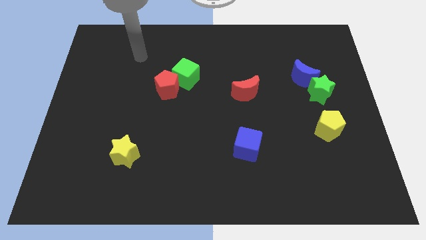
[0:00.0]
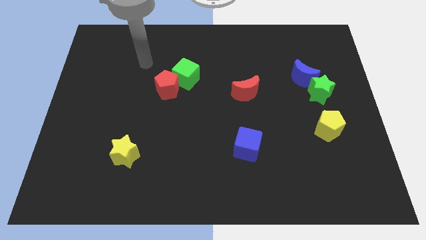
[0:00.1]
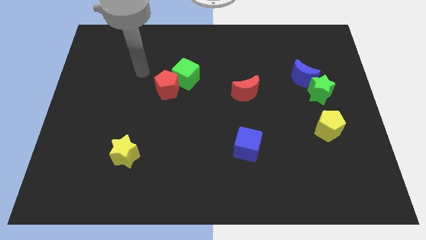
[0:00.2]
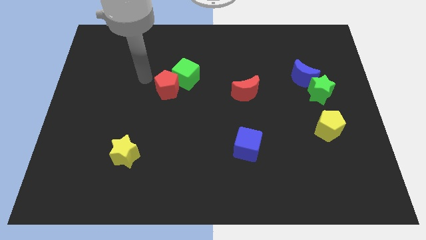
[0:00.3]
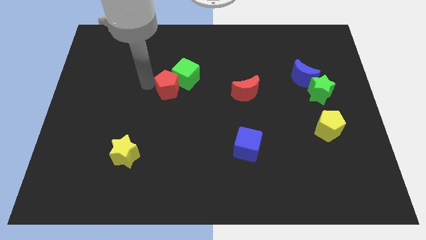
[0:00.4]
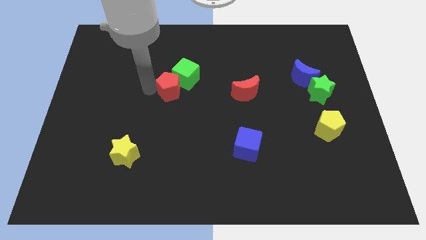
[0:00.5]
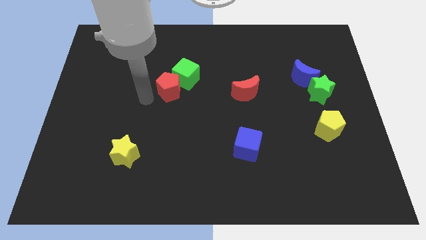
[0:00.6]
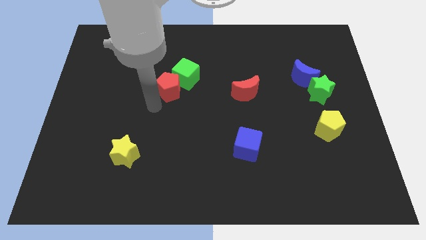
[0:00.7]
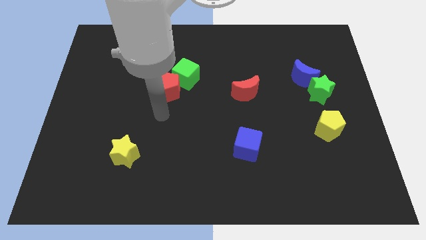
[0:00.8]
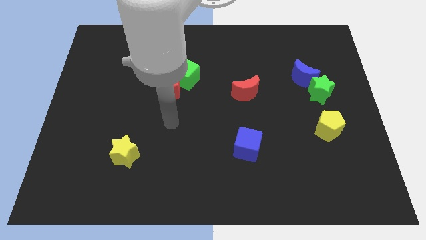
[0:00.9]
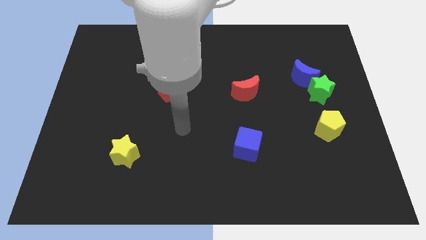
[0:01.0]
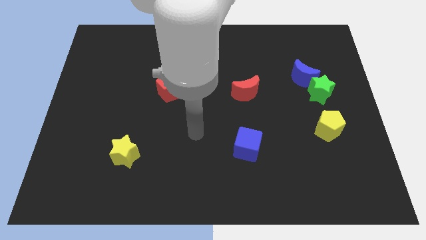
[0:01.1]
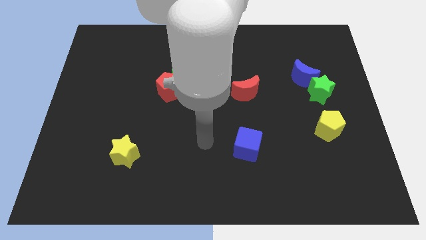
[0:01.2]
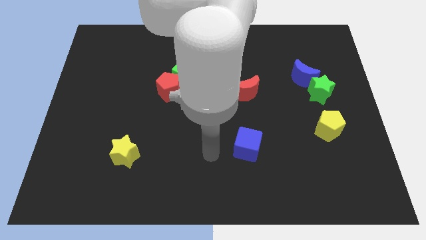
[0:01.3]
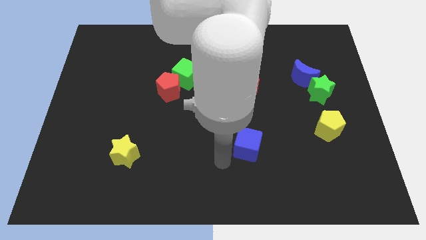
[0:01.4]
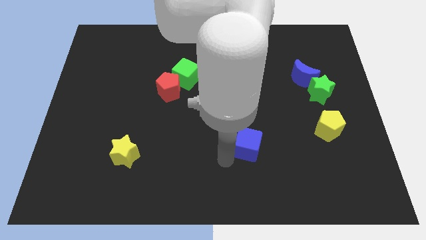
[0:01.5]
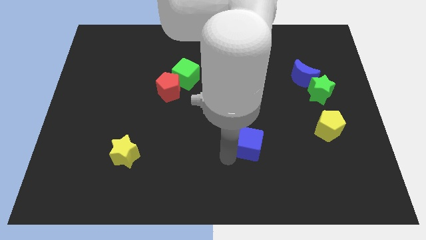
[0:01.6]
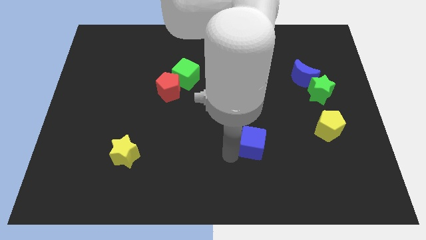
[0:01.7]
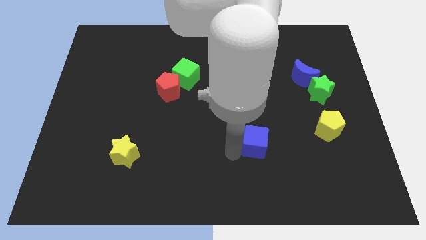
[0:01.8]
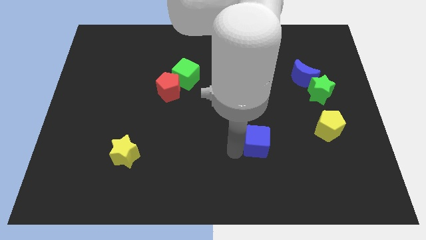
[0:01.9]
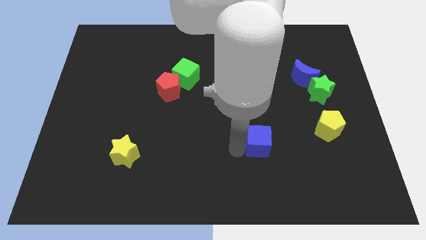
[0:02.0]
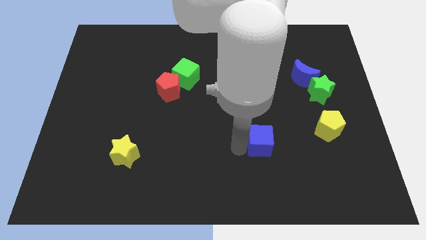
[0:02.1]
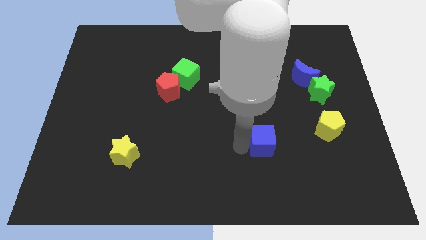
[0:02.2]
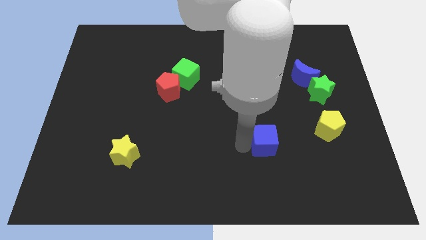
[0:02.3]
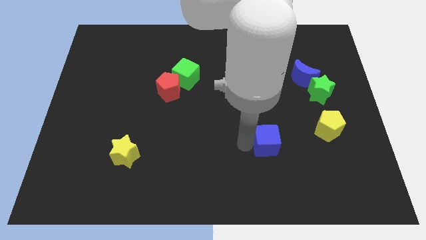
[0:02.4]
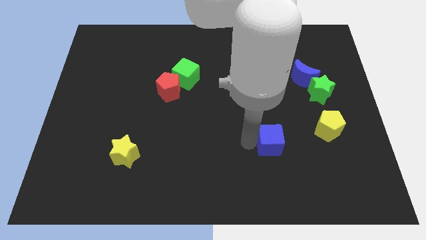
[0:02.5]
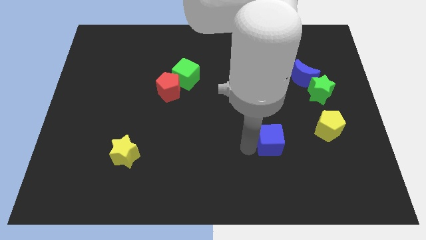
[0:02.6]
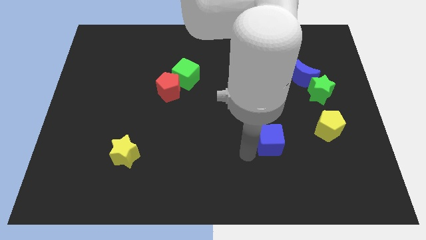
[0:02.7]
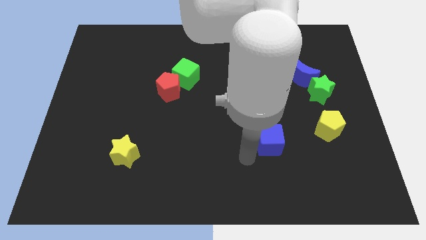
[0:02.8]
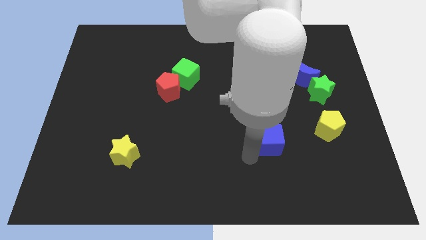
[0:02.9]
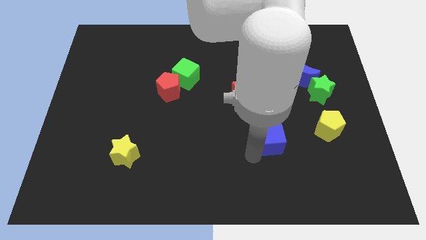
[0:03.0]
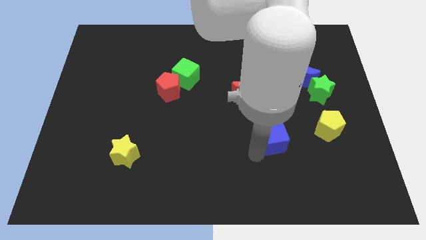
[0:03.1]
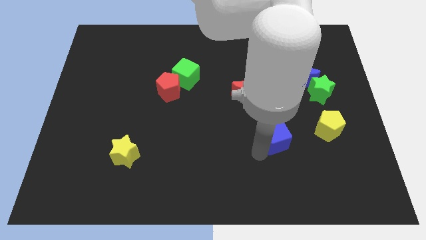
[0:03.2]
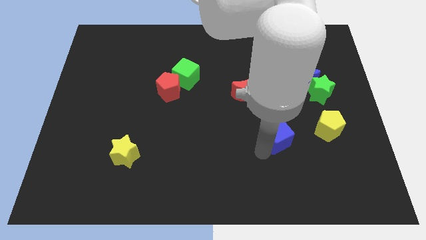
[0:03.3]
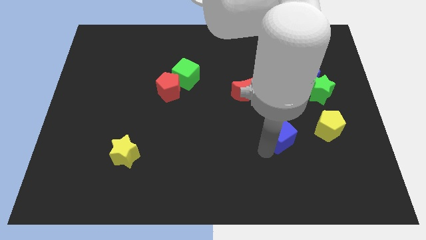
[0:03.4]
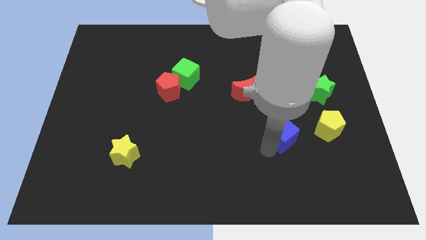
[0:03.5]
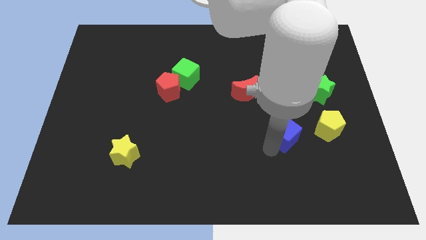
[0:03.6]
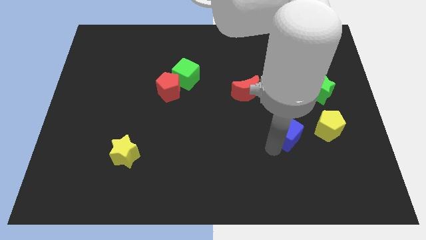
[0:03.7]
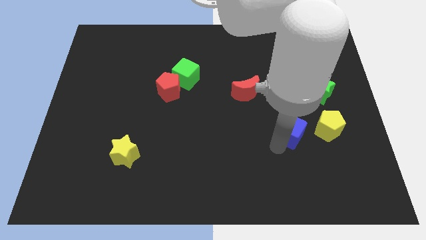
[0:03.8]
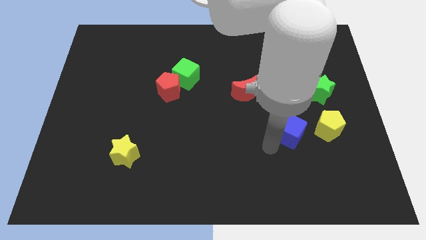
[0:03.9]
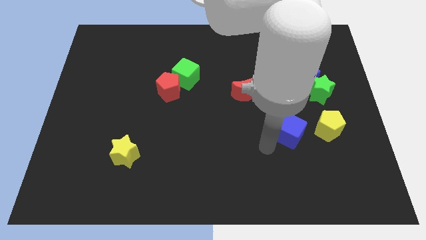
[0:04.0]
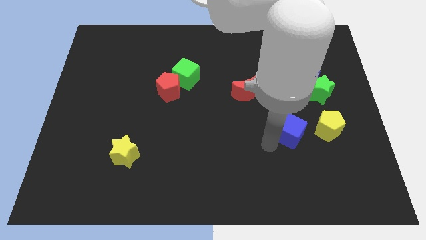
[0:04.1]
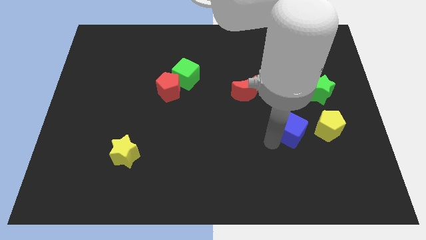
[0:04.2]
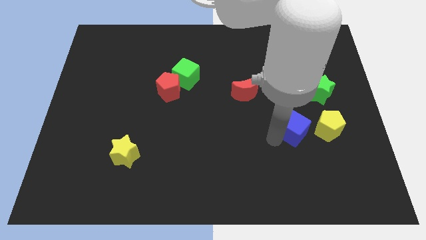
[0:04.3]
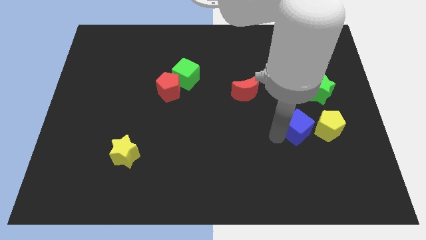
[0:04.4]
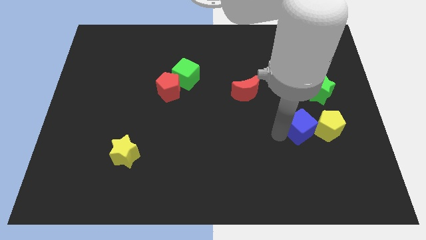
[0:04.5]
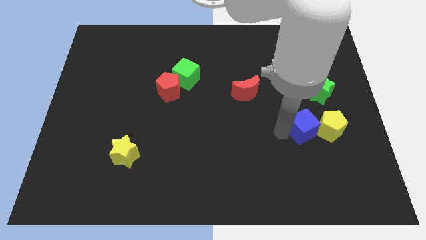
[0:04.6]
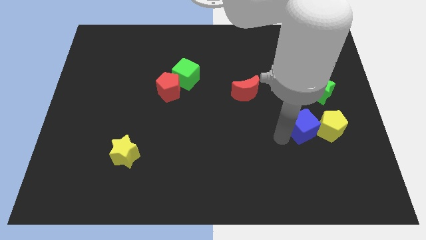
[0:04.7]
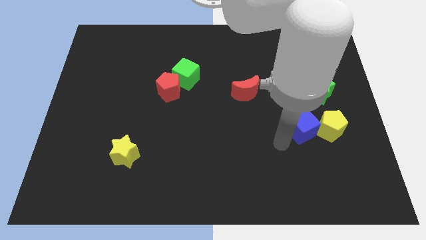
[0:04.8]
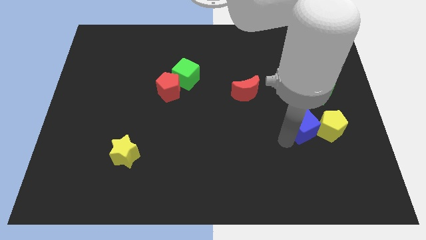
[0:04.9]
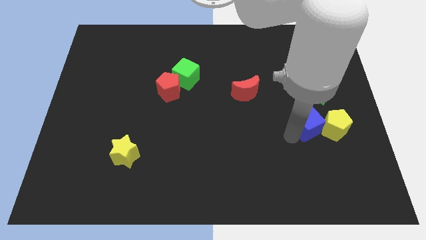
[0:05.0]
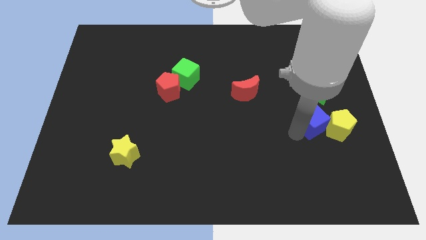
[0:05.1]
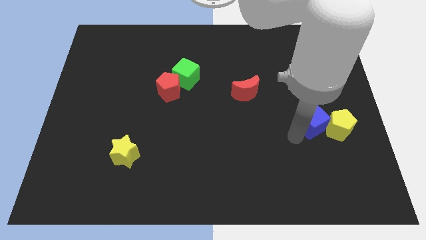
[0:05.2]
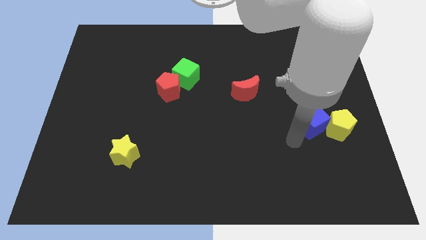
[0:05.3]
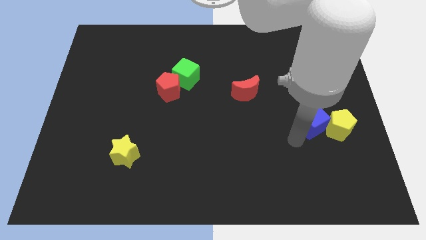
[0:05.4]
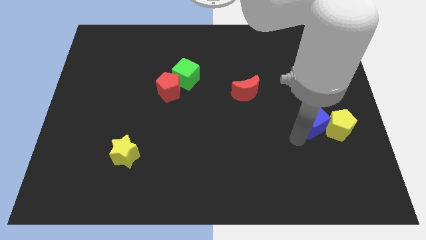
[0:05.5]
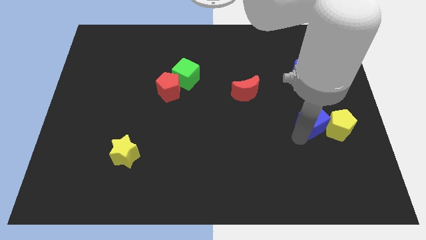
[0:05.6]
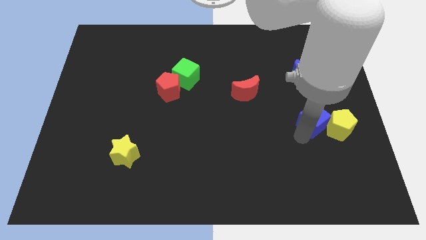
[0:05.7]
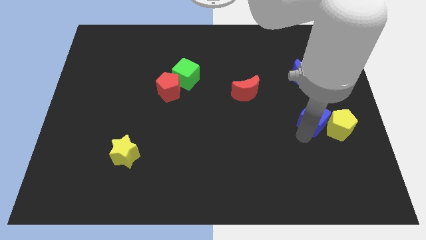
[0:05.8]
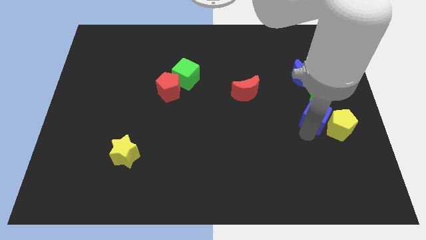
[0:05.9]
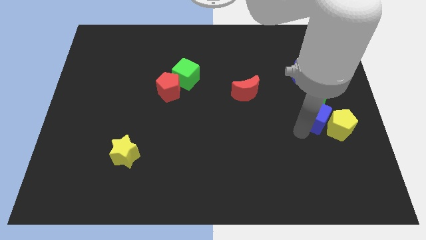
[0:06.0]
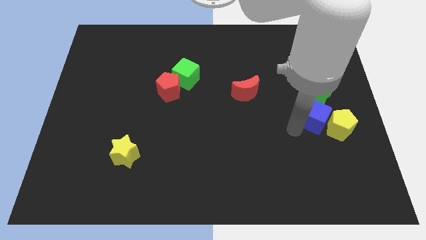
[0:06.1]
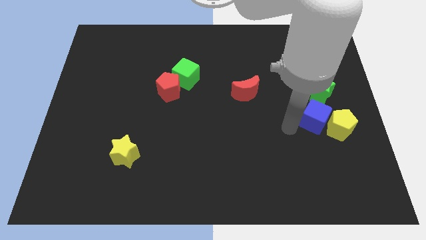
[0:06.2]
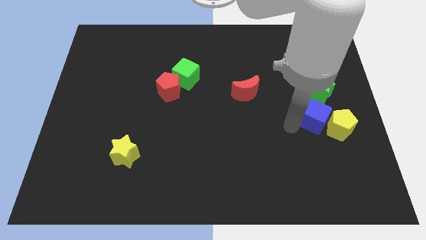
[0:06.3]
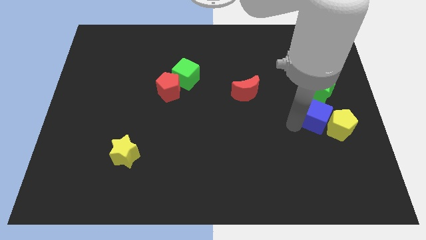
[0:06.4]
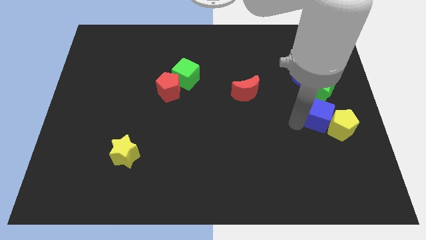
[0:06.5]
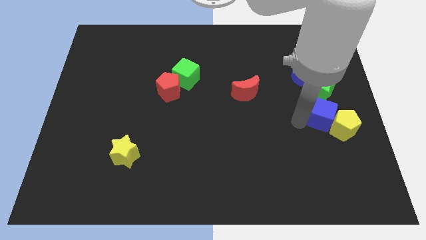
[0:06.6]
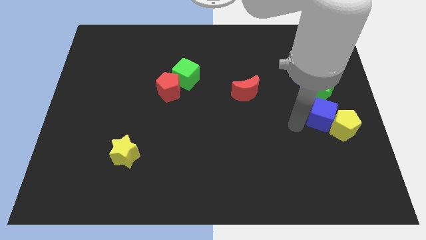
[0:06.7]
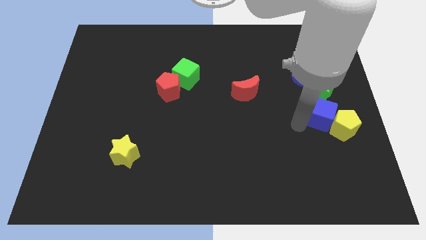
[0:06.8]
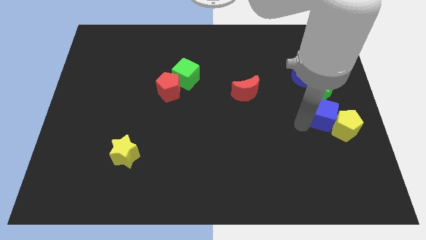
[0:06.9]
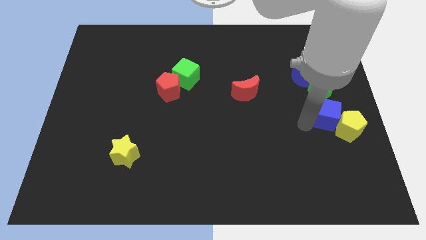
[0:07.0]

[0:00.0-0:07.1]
slide the blue cube to the right side of the board

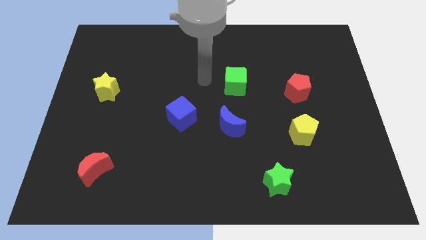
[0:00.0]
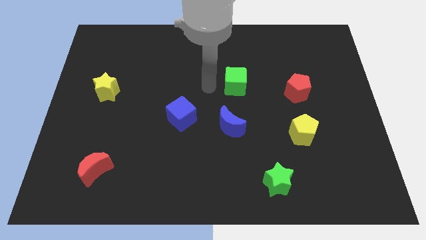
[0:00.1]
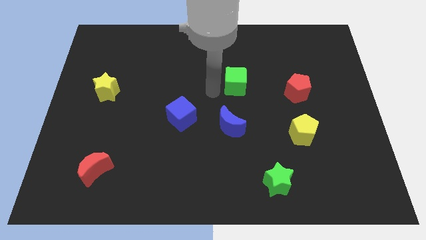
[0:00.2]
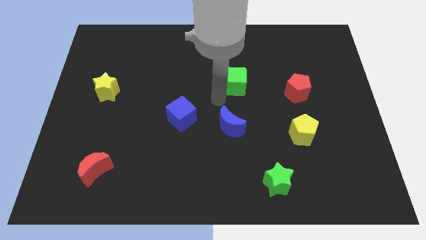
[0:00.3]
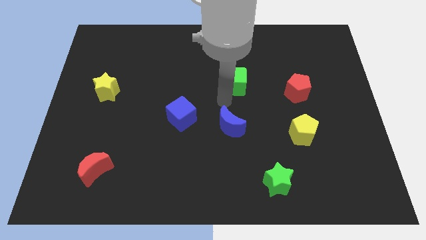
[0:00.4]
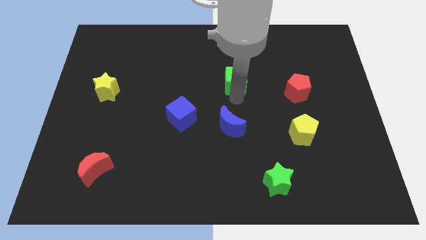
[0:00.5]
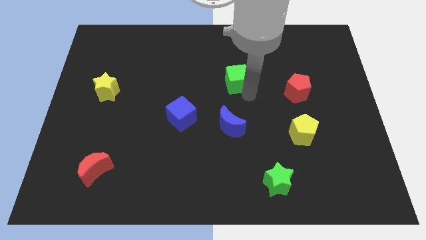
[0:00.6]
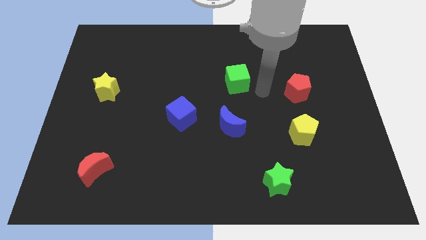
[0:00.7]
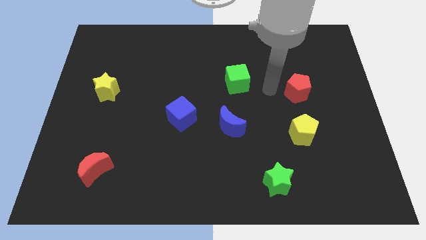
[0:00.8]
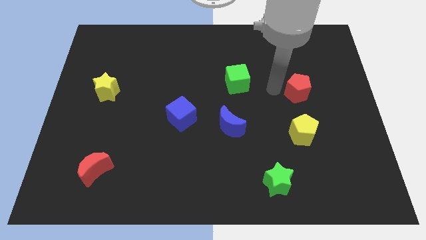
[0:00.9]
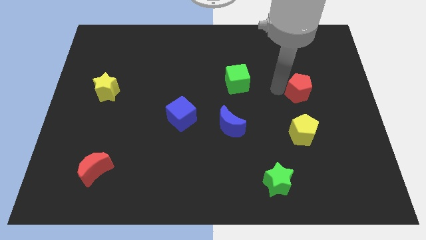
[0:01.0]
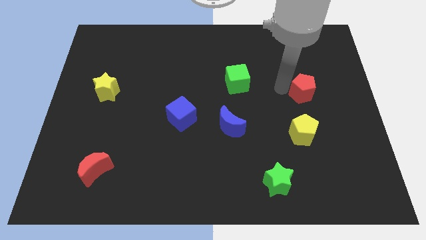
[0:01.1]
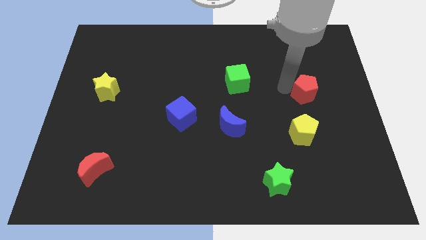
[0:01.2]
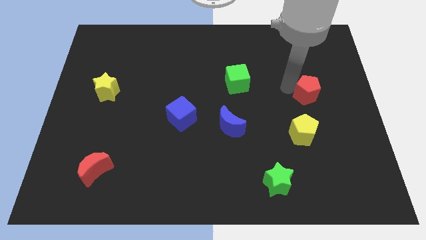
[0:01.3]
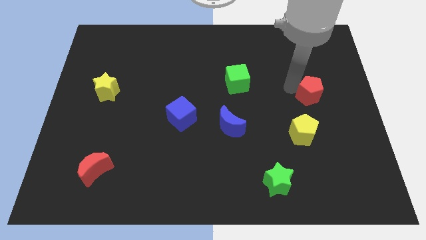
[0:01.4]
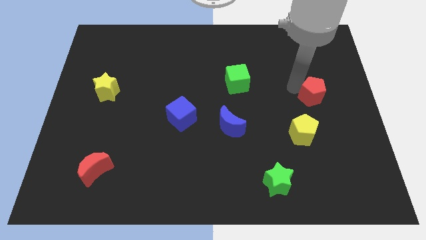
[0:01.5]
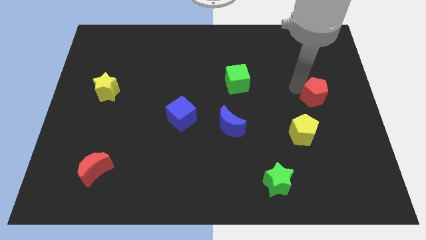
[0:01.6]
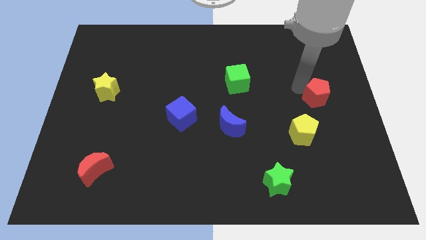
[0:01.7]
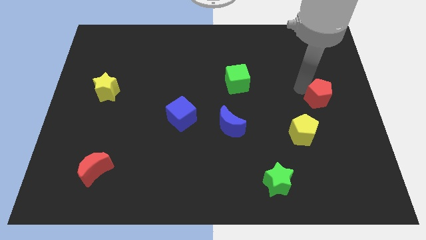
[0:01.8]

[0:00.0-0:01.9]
push the red pentagon to the right side
